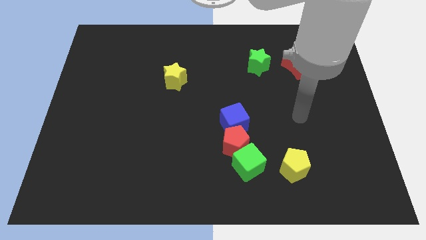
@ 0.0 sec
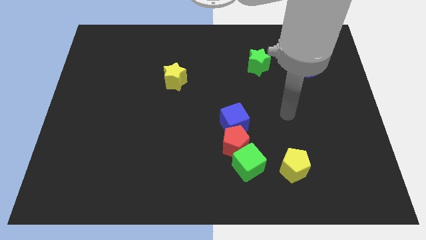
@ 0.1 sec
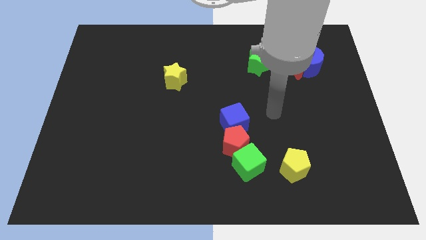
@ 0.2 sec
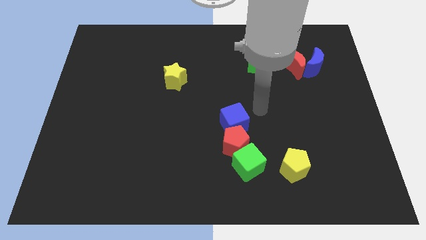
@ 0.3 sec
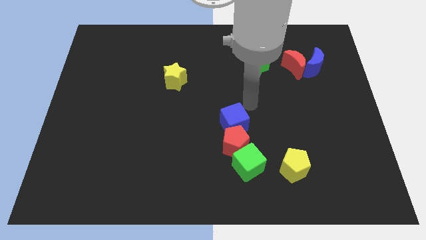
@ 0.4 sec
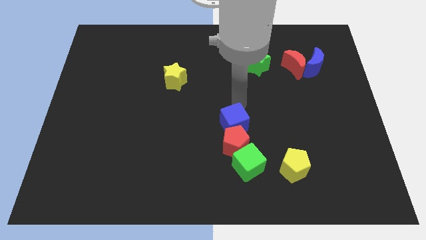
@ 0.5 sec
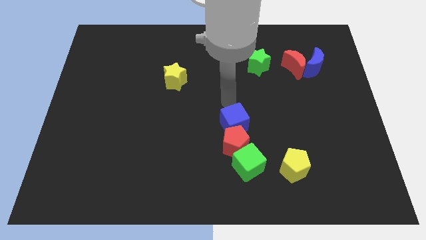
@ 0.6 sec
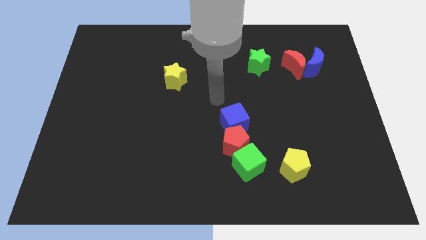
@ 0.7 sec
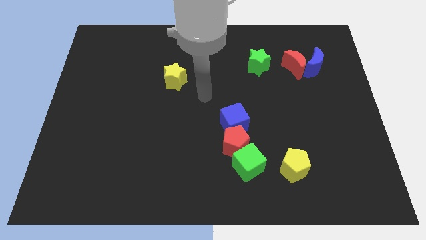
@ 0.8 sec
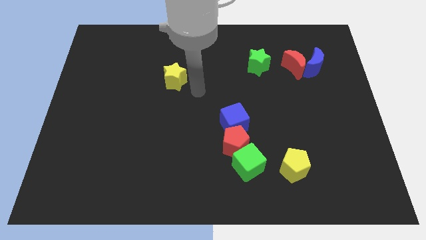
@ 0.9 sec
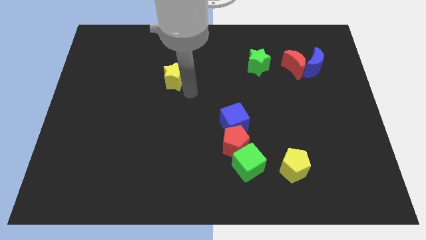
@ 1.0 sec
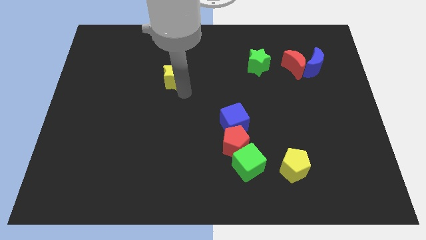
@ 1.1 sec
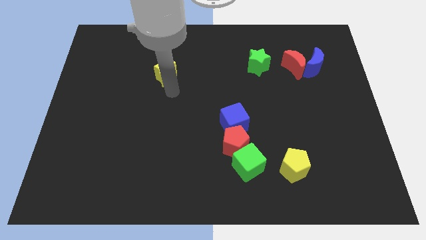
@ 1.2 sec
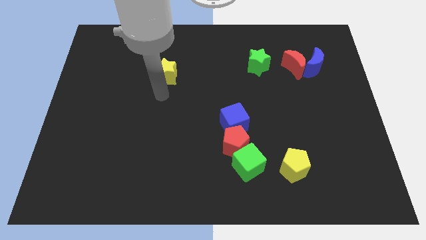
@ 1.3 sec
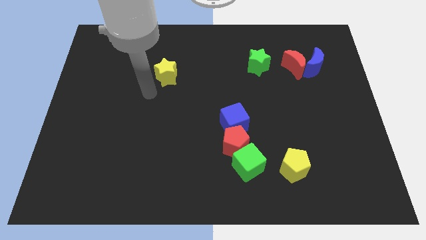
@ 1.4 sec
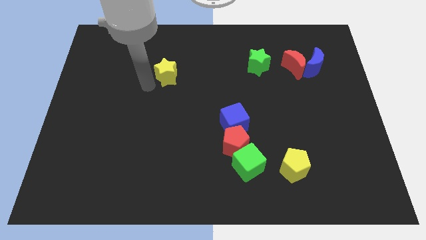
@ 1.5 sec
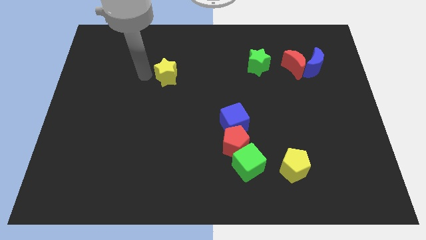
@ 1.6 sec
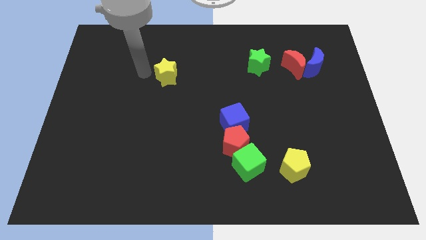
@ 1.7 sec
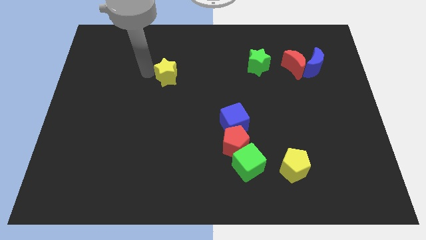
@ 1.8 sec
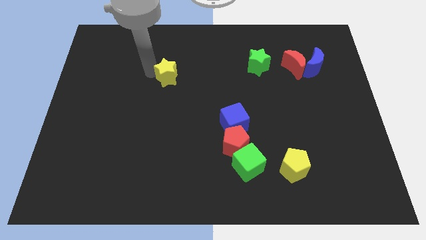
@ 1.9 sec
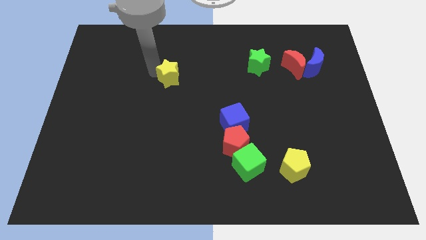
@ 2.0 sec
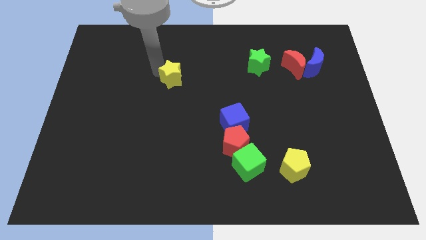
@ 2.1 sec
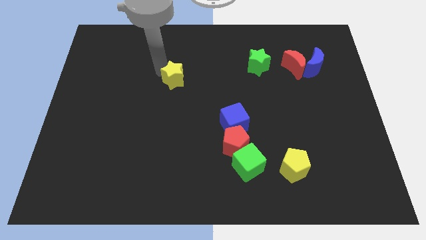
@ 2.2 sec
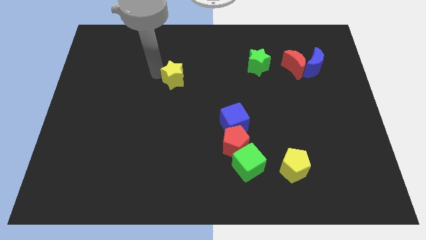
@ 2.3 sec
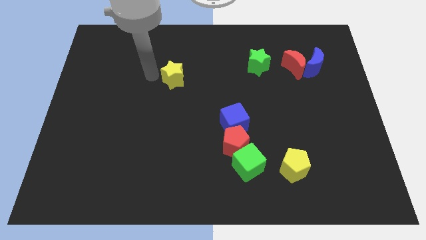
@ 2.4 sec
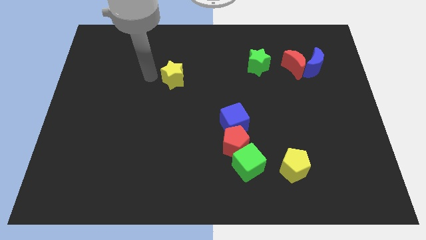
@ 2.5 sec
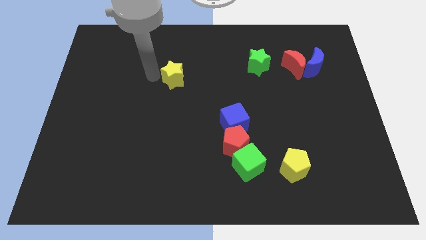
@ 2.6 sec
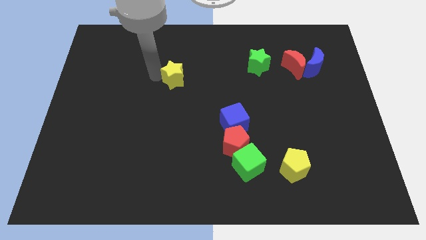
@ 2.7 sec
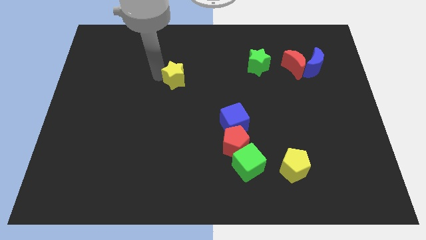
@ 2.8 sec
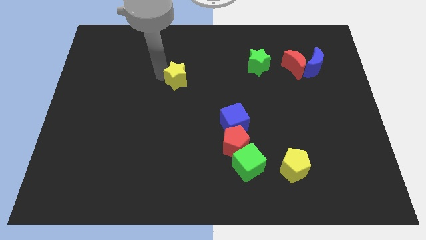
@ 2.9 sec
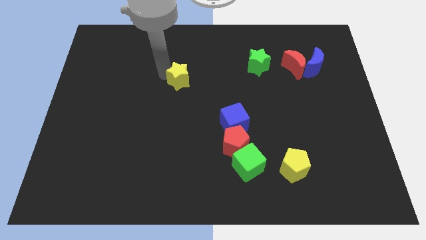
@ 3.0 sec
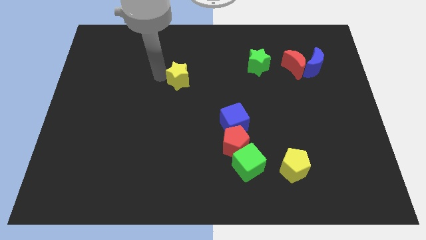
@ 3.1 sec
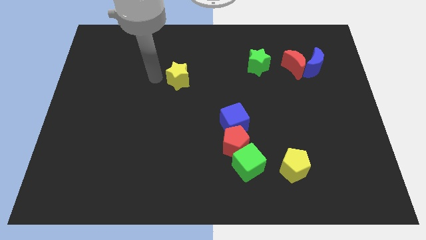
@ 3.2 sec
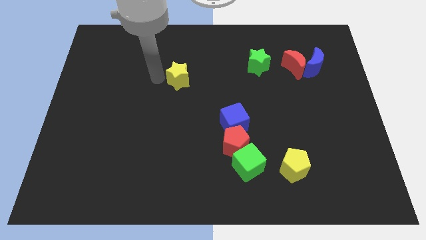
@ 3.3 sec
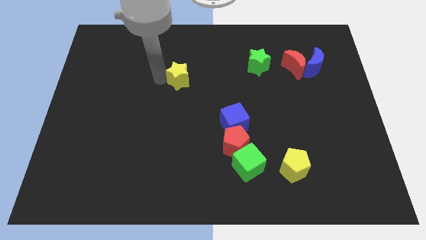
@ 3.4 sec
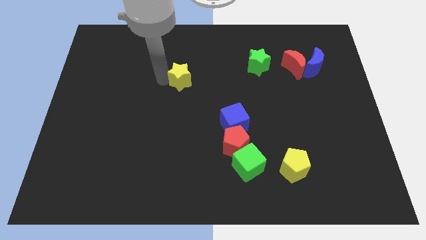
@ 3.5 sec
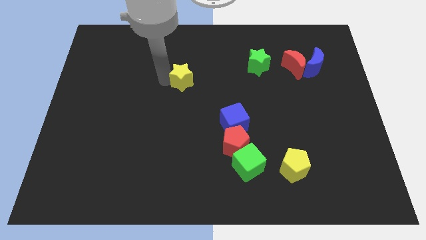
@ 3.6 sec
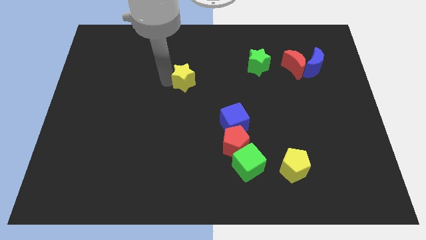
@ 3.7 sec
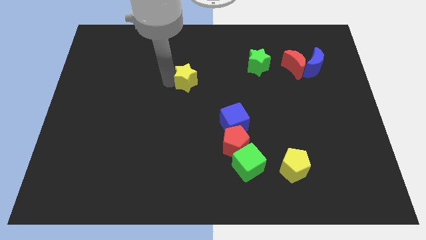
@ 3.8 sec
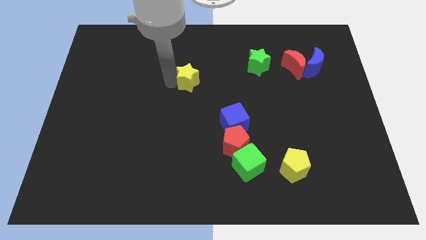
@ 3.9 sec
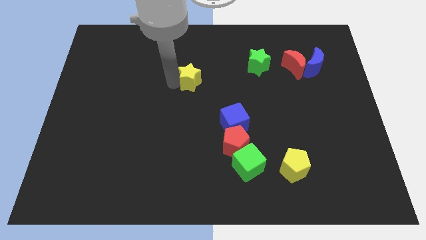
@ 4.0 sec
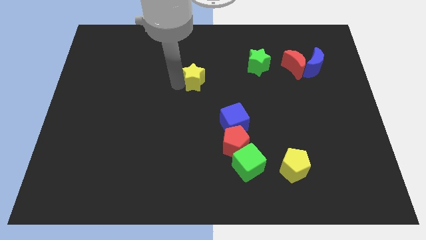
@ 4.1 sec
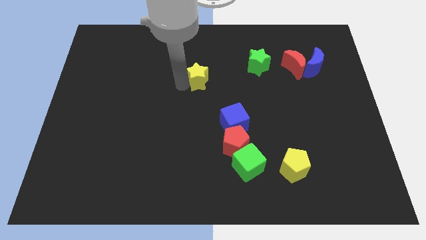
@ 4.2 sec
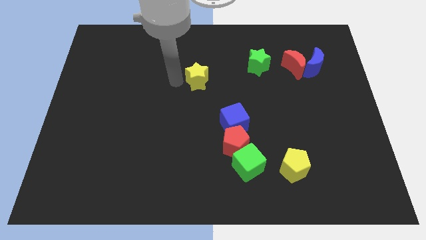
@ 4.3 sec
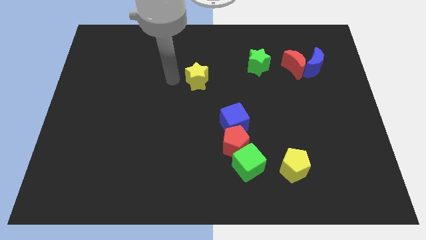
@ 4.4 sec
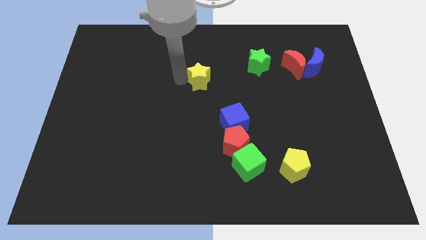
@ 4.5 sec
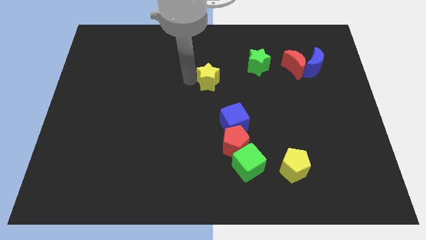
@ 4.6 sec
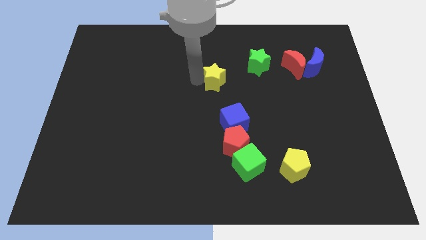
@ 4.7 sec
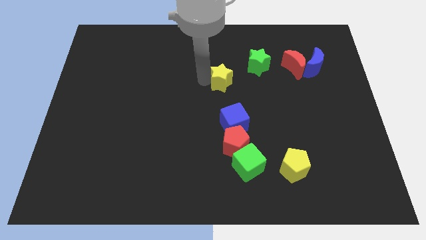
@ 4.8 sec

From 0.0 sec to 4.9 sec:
push the yellow star to the bottom left of the green star

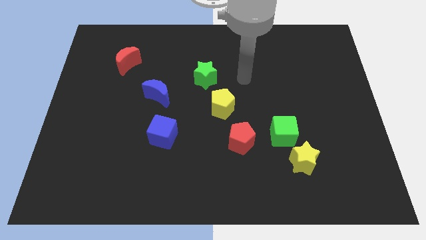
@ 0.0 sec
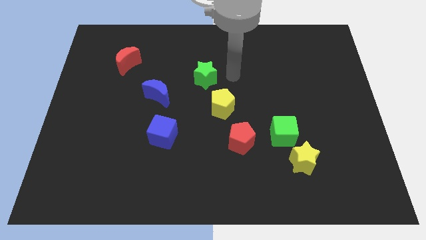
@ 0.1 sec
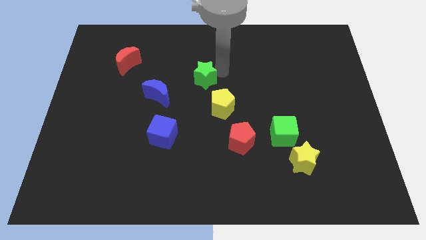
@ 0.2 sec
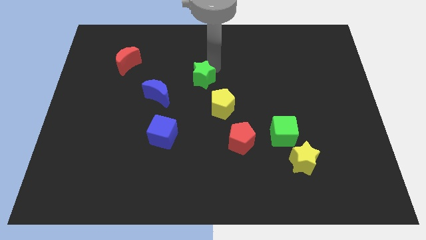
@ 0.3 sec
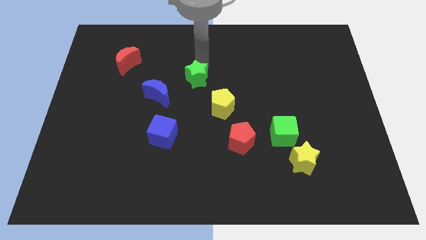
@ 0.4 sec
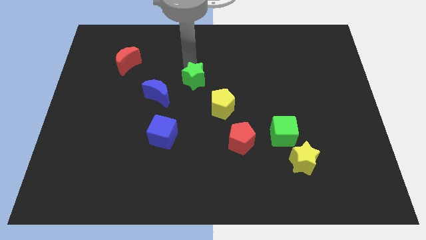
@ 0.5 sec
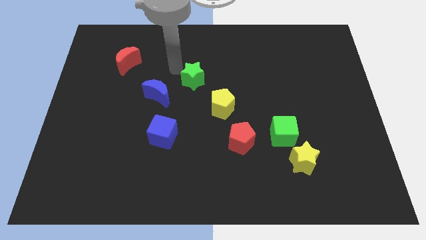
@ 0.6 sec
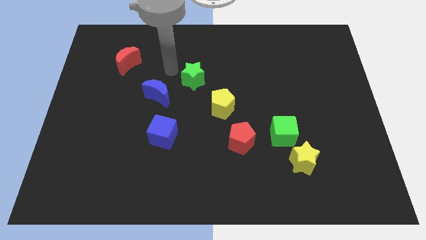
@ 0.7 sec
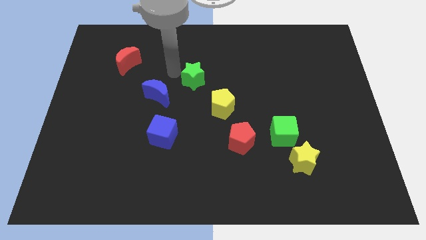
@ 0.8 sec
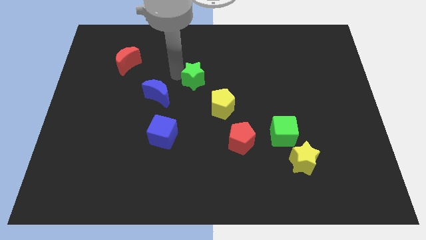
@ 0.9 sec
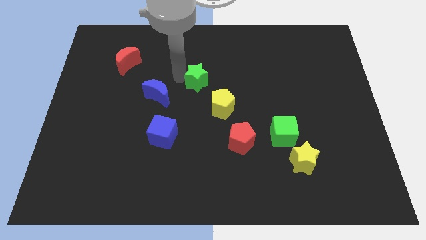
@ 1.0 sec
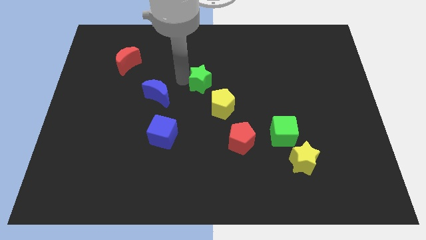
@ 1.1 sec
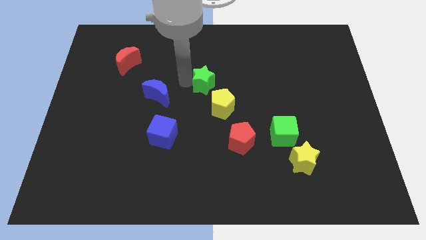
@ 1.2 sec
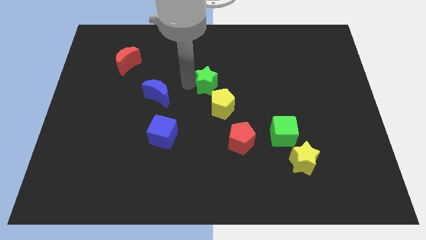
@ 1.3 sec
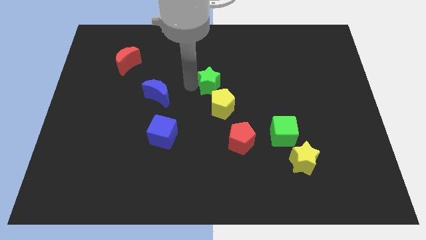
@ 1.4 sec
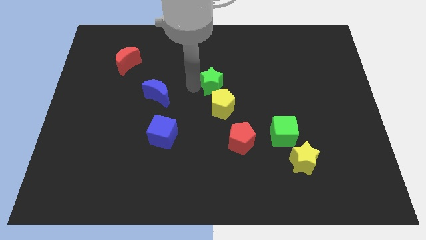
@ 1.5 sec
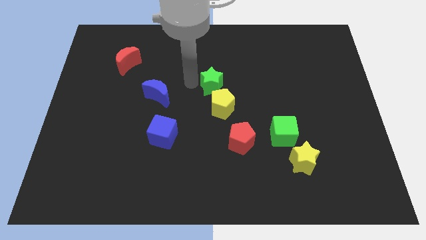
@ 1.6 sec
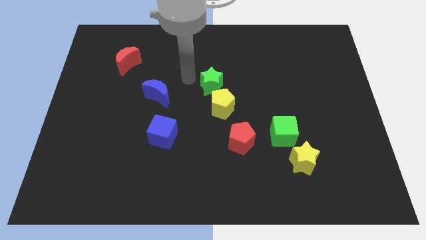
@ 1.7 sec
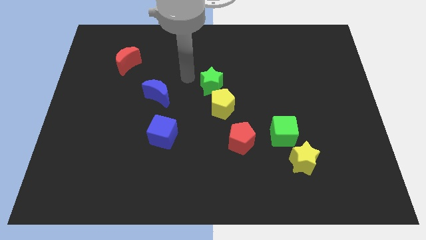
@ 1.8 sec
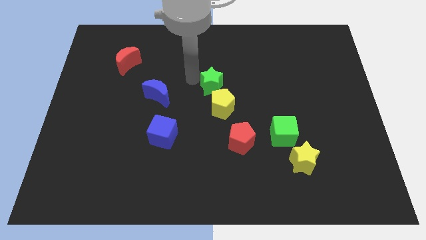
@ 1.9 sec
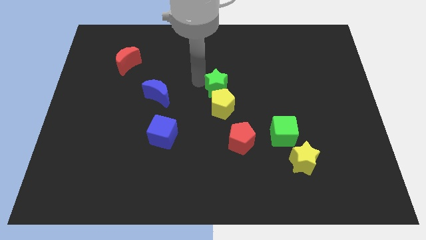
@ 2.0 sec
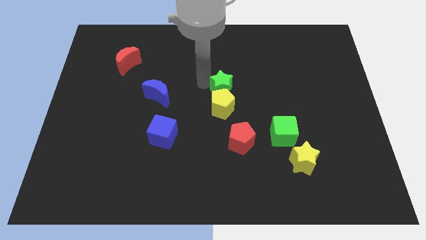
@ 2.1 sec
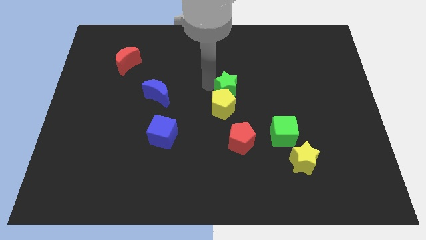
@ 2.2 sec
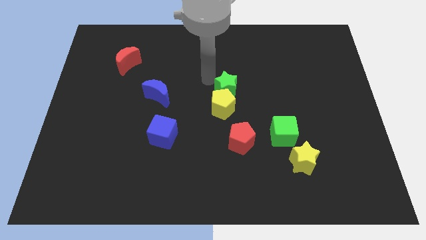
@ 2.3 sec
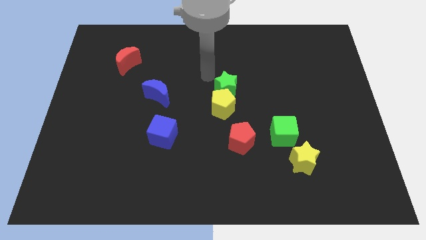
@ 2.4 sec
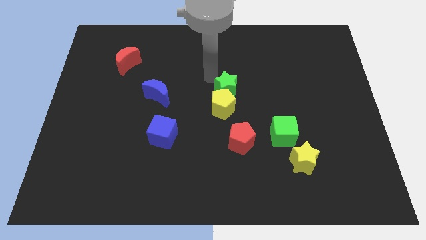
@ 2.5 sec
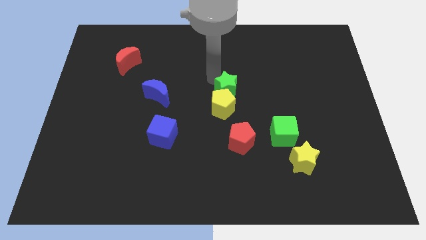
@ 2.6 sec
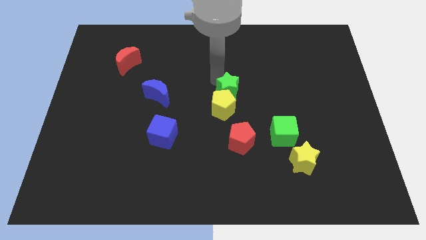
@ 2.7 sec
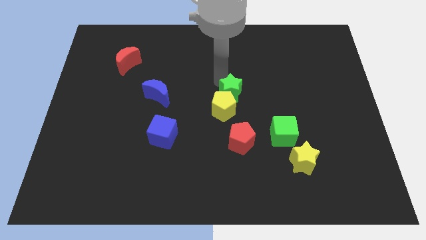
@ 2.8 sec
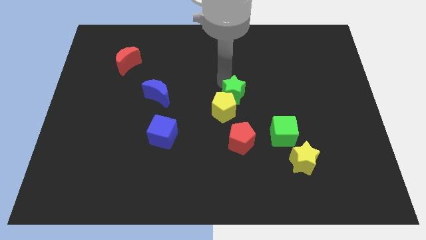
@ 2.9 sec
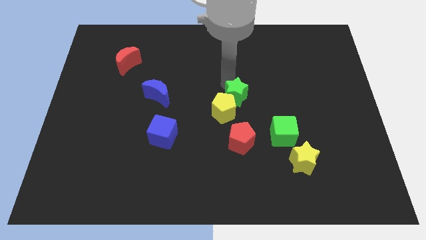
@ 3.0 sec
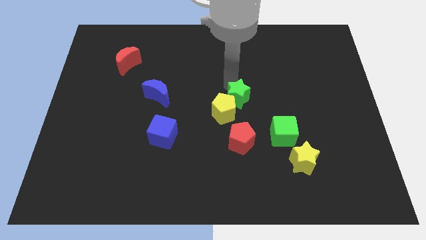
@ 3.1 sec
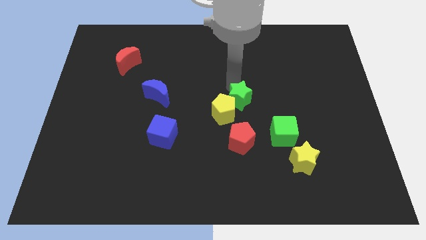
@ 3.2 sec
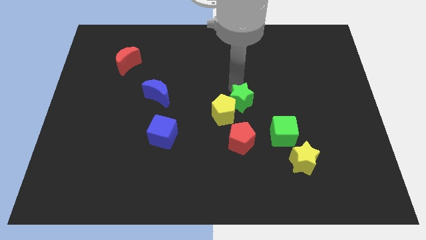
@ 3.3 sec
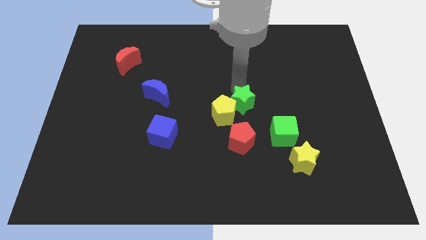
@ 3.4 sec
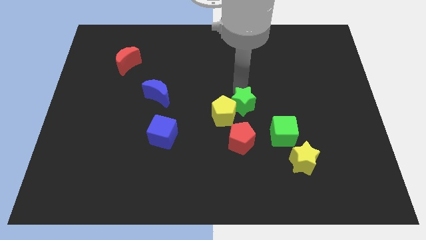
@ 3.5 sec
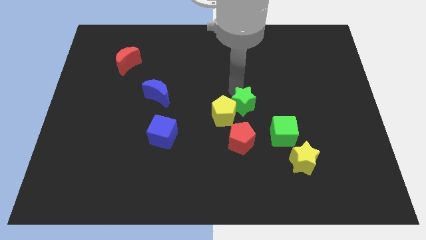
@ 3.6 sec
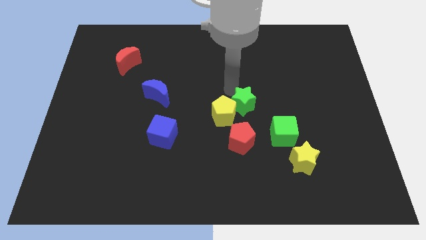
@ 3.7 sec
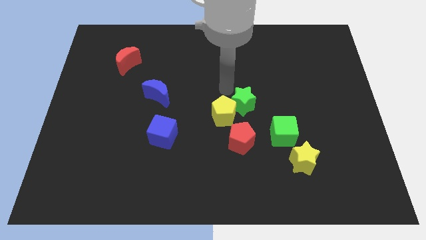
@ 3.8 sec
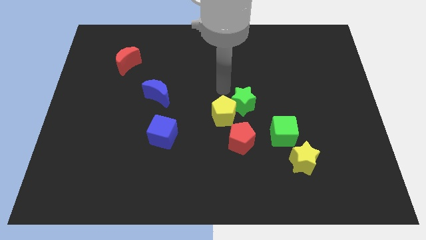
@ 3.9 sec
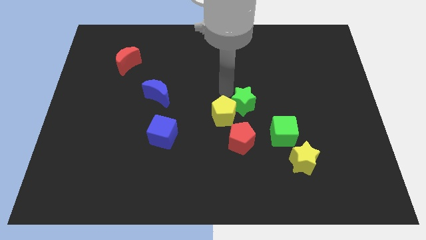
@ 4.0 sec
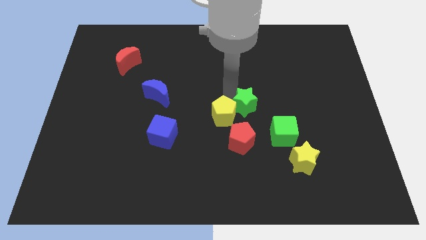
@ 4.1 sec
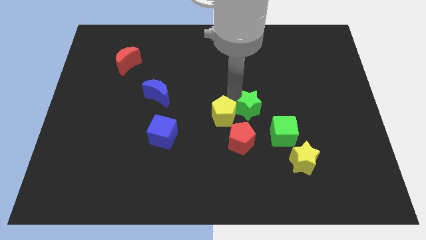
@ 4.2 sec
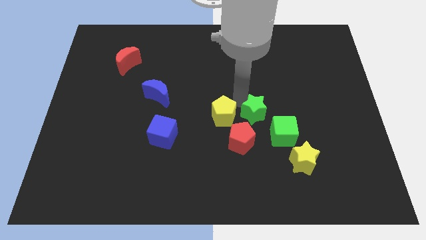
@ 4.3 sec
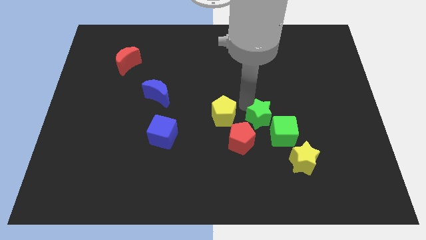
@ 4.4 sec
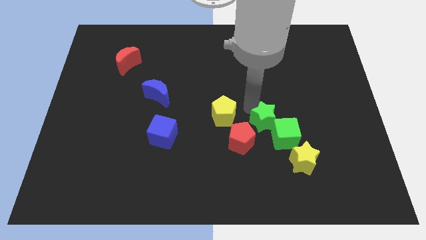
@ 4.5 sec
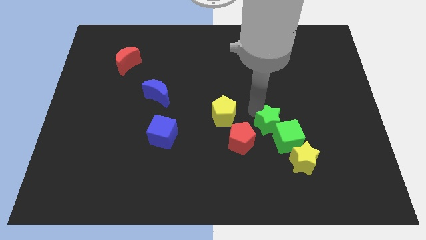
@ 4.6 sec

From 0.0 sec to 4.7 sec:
push the green star diagonally up and to the left of the yellow star
